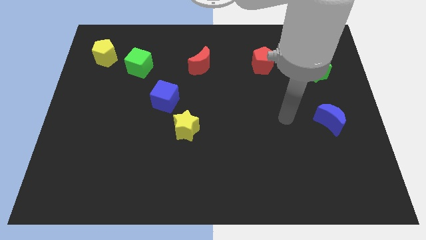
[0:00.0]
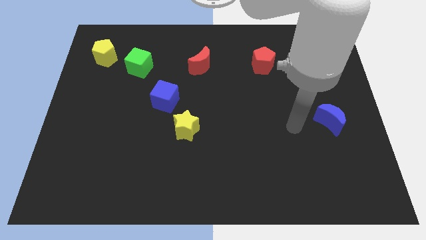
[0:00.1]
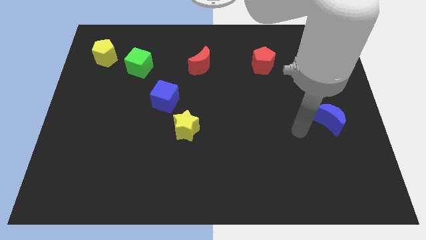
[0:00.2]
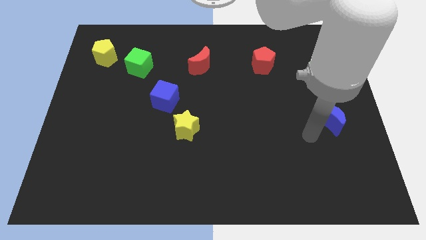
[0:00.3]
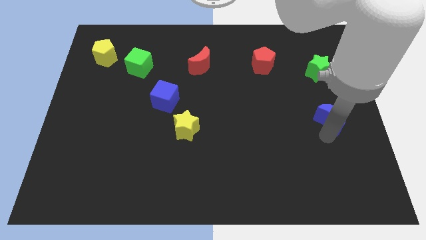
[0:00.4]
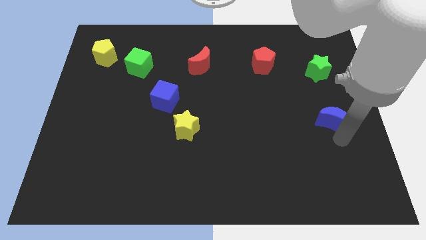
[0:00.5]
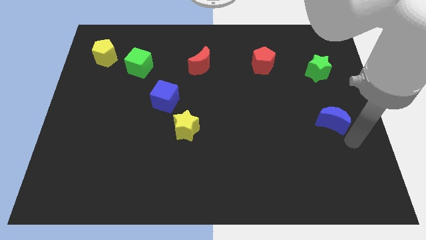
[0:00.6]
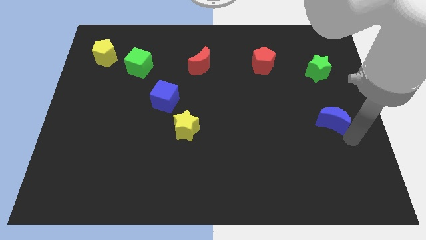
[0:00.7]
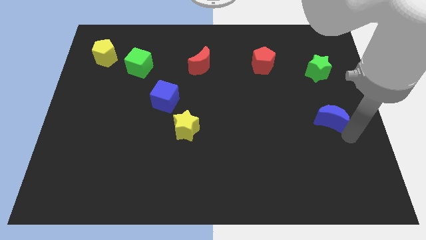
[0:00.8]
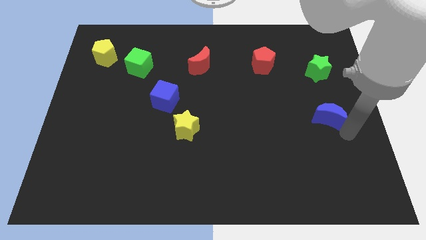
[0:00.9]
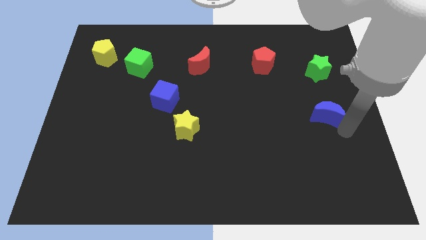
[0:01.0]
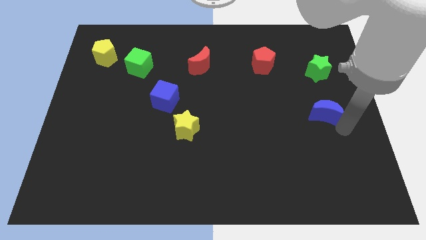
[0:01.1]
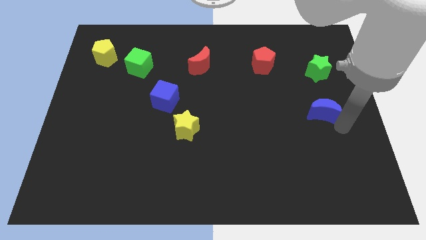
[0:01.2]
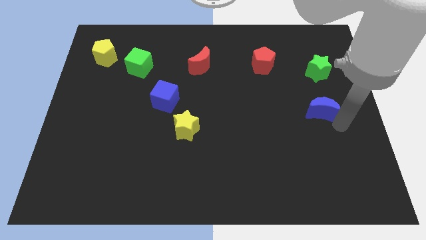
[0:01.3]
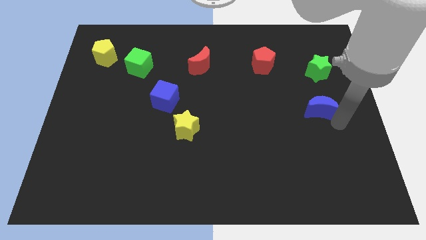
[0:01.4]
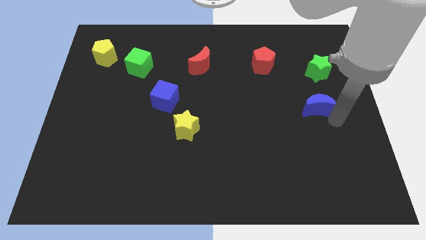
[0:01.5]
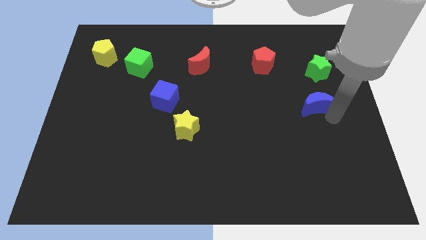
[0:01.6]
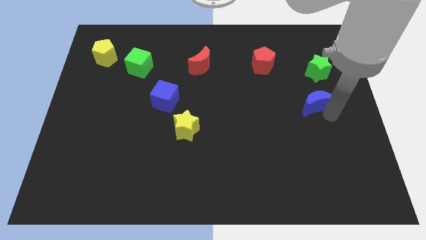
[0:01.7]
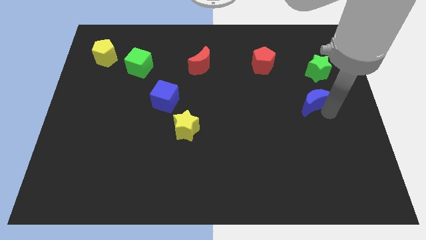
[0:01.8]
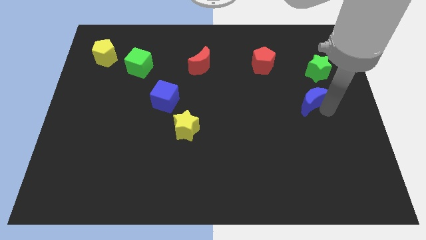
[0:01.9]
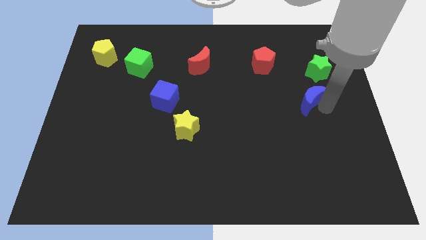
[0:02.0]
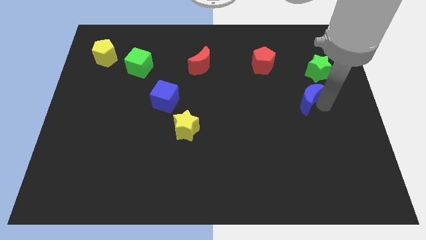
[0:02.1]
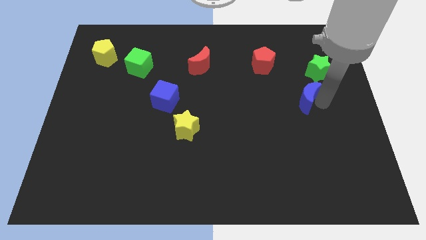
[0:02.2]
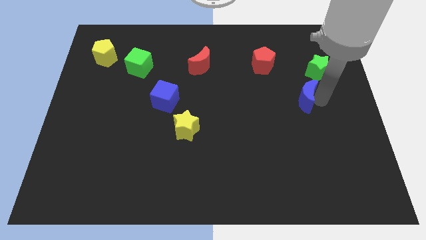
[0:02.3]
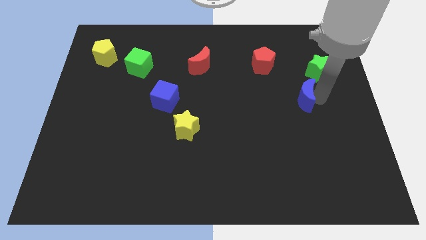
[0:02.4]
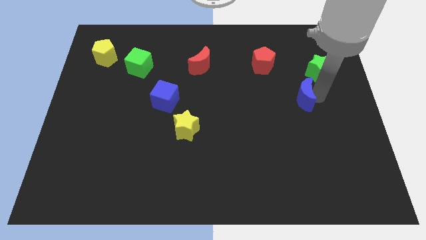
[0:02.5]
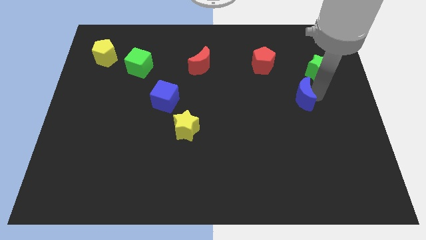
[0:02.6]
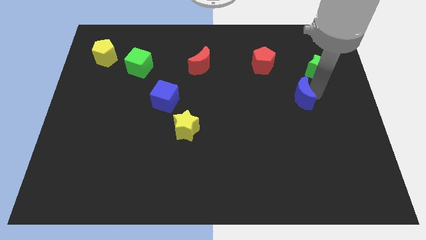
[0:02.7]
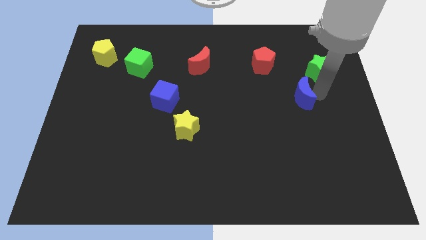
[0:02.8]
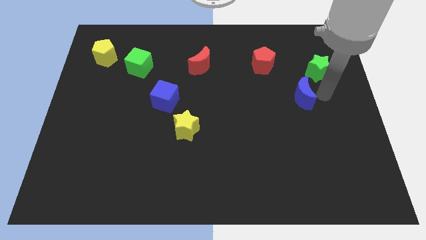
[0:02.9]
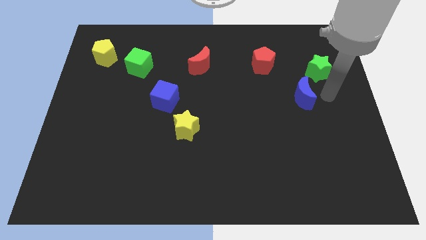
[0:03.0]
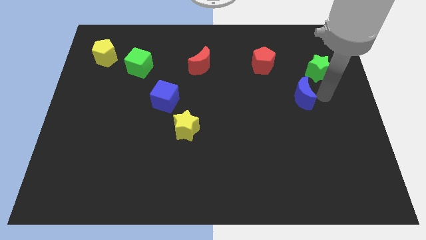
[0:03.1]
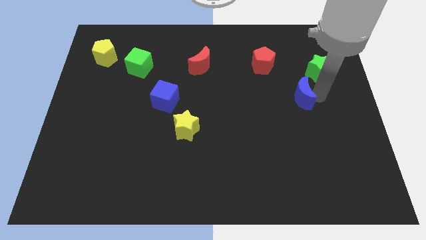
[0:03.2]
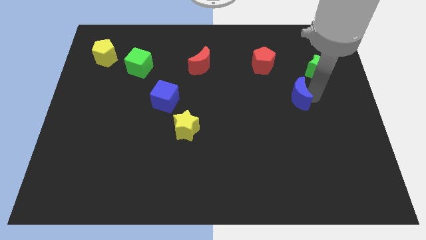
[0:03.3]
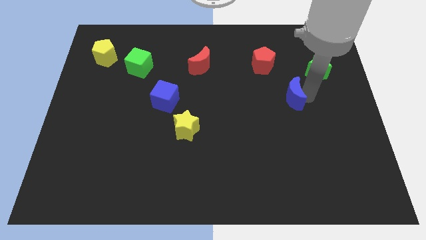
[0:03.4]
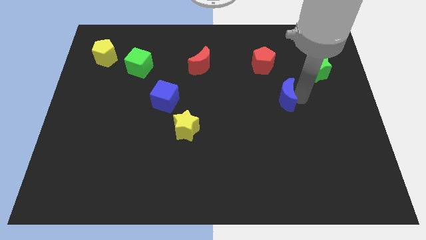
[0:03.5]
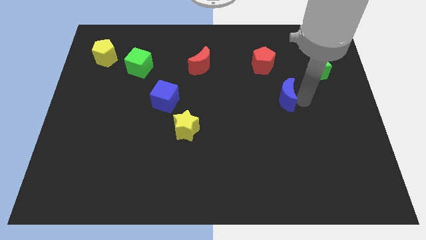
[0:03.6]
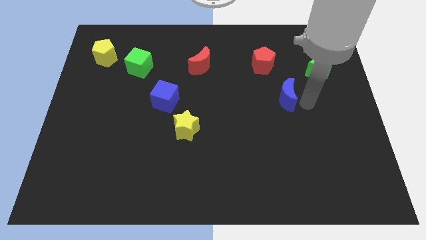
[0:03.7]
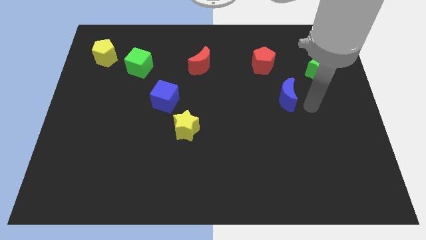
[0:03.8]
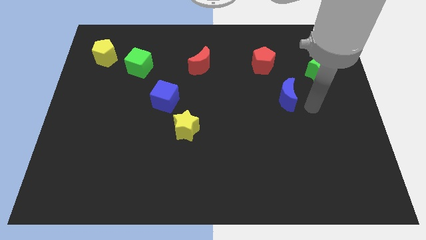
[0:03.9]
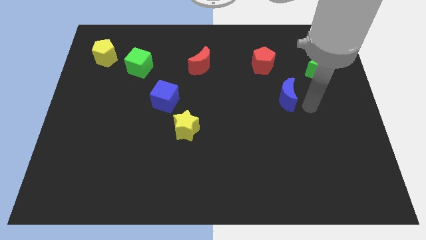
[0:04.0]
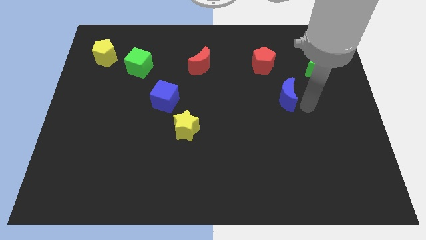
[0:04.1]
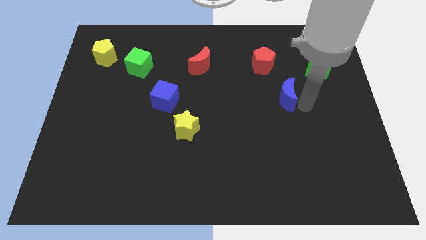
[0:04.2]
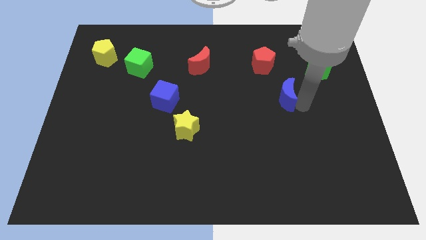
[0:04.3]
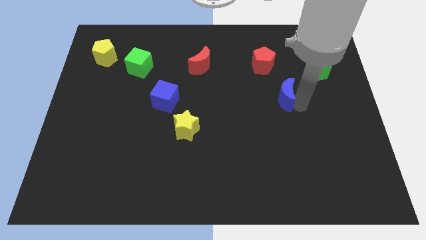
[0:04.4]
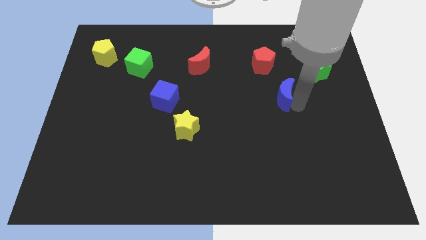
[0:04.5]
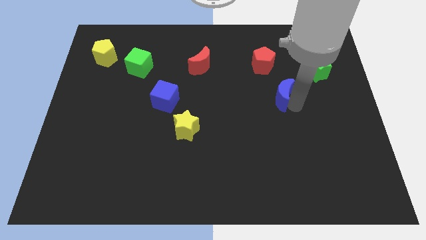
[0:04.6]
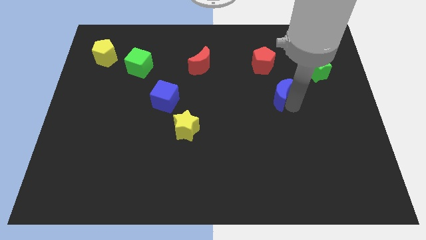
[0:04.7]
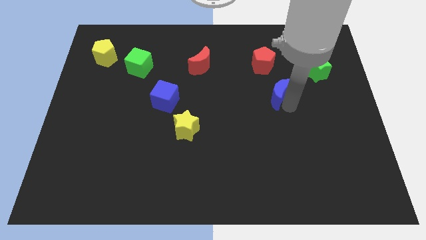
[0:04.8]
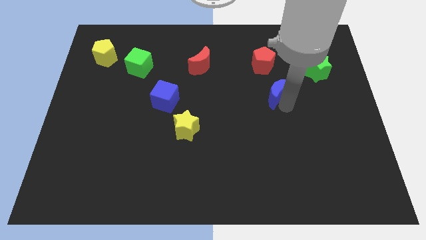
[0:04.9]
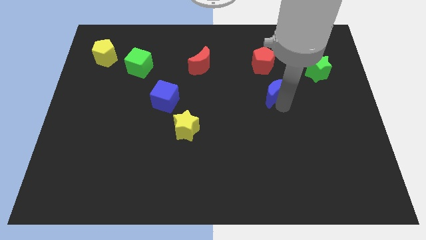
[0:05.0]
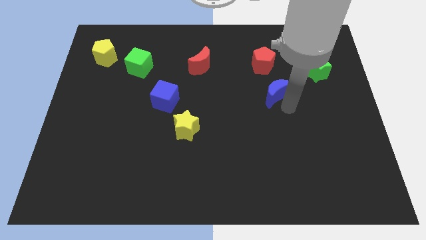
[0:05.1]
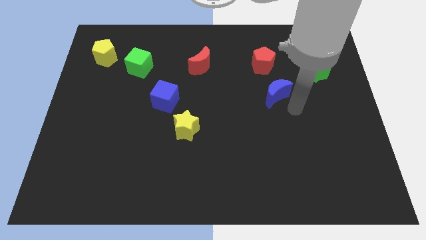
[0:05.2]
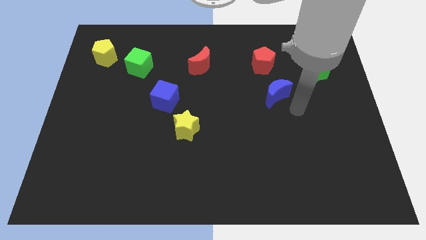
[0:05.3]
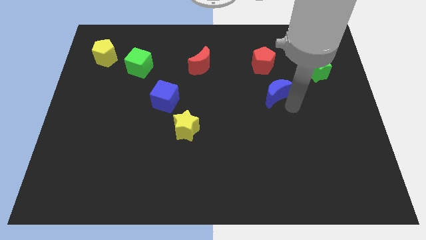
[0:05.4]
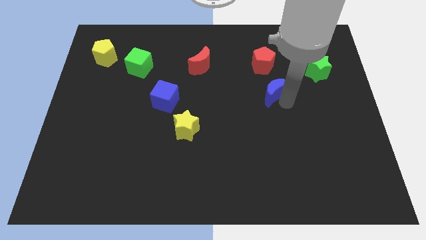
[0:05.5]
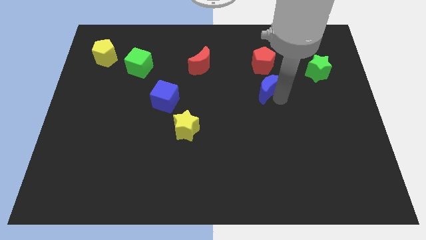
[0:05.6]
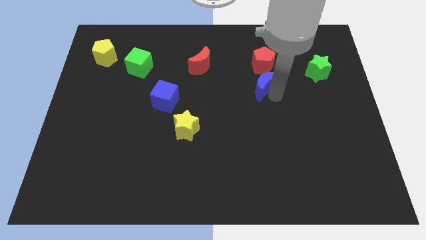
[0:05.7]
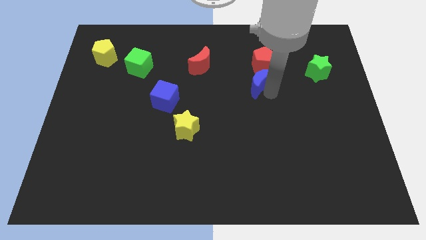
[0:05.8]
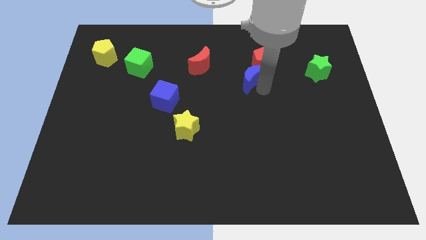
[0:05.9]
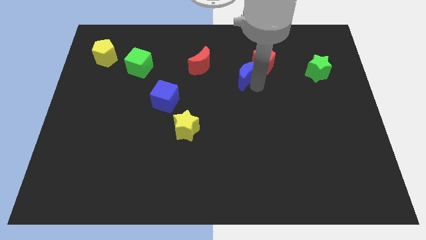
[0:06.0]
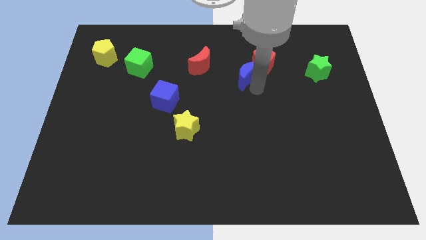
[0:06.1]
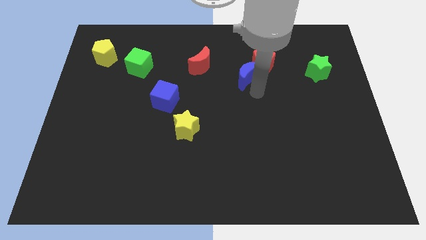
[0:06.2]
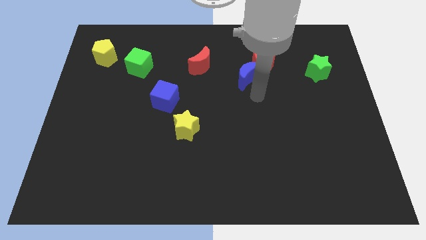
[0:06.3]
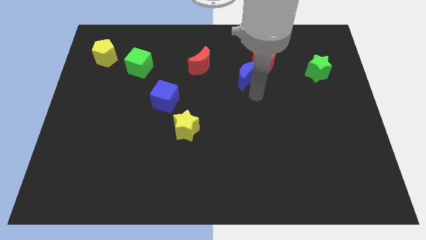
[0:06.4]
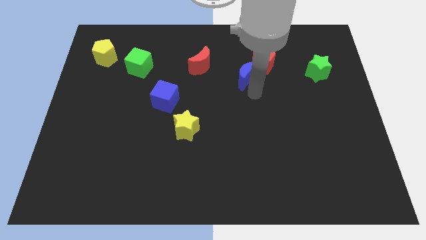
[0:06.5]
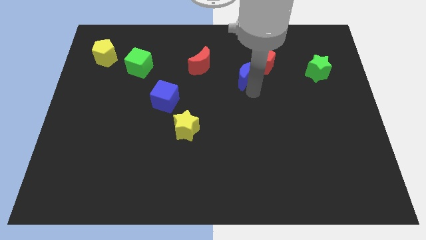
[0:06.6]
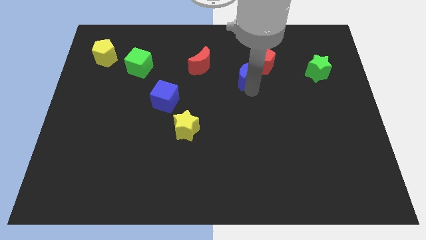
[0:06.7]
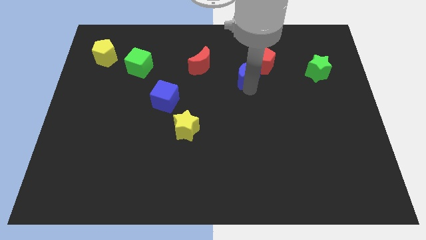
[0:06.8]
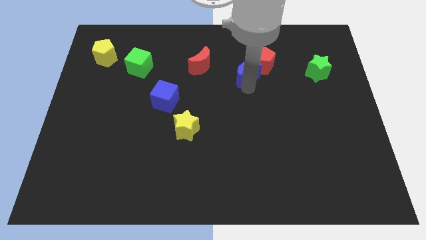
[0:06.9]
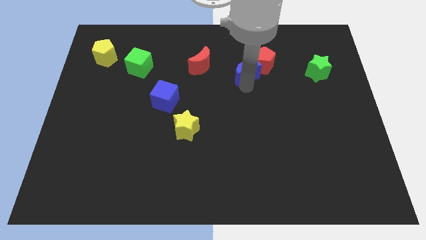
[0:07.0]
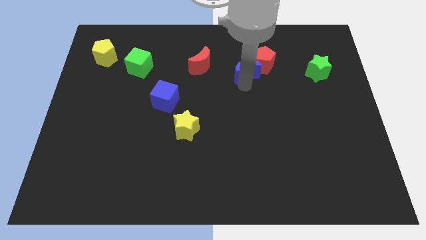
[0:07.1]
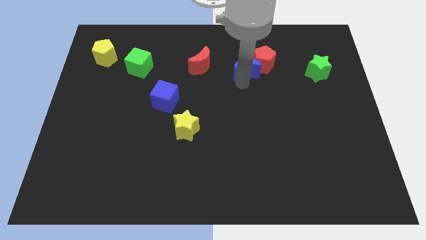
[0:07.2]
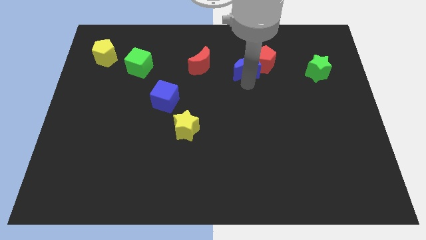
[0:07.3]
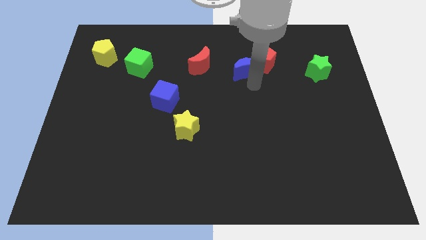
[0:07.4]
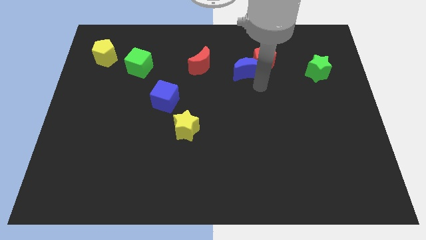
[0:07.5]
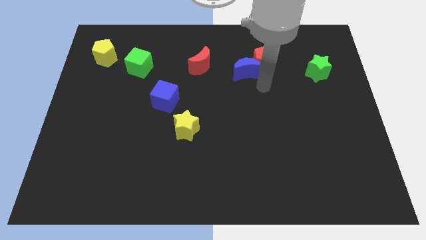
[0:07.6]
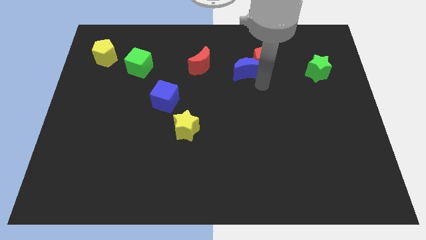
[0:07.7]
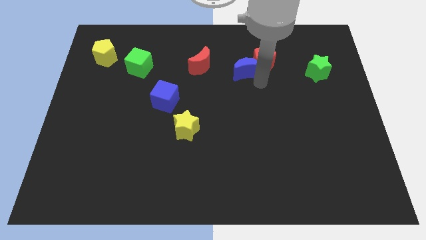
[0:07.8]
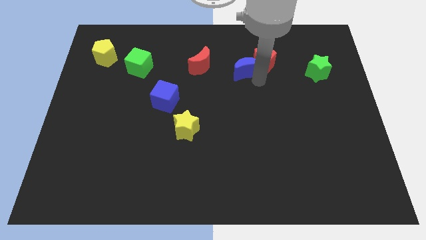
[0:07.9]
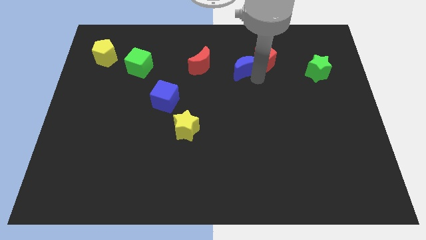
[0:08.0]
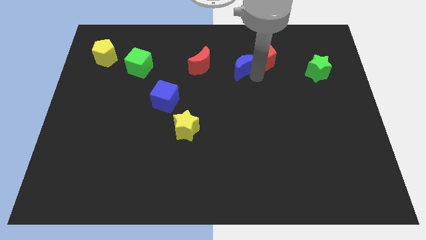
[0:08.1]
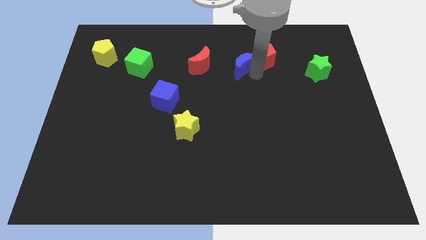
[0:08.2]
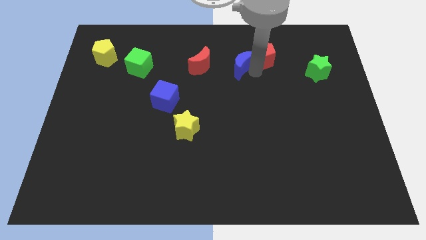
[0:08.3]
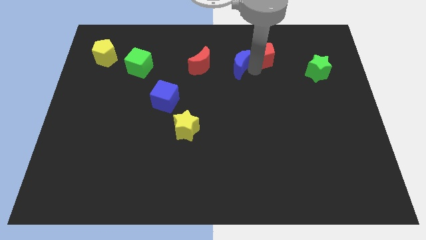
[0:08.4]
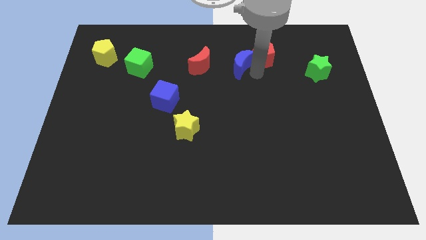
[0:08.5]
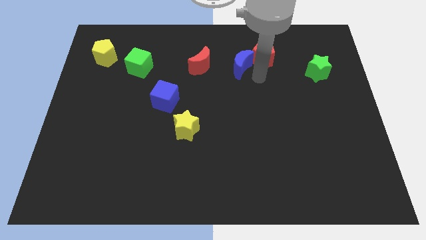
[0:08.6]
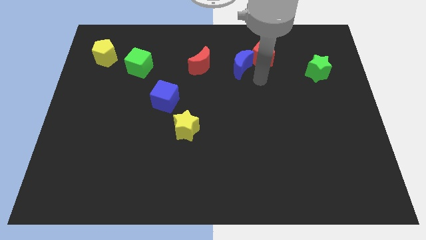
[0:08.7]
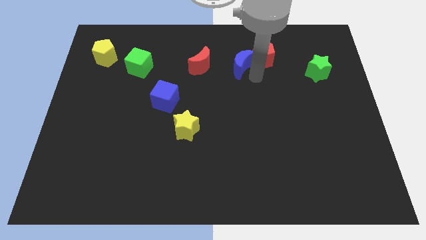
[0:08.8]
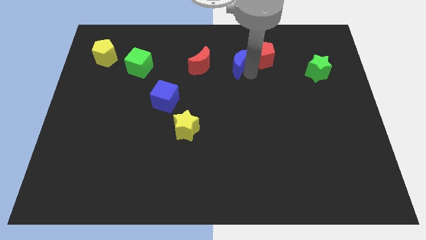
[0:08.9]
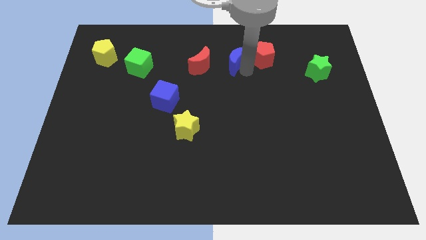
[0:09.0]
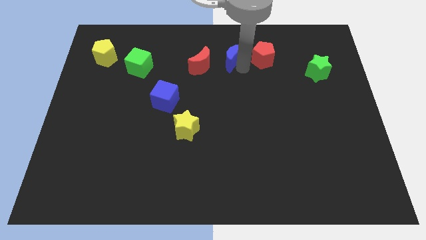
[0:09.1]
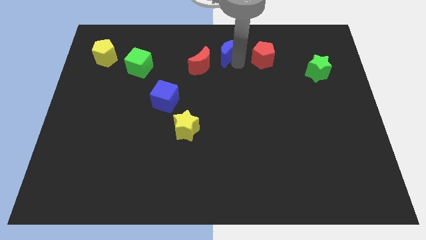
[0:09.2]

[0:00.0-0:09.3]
push the blue moon to the towards your base
